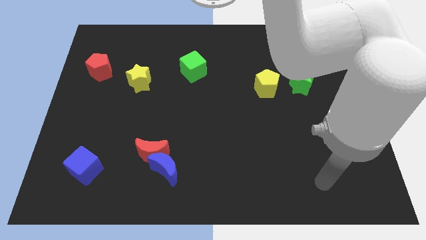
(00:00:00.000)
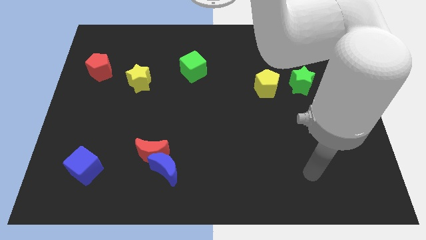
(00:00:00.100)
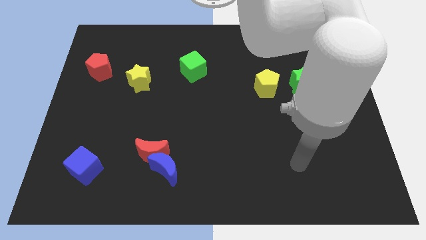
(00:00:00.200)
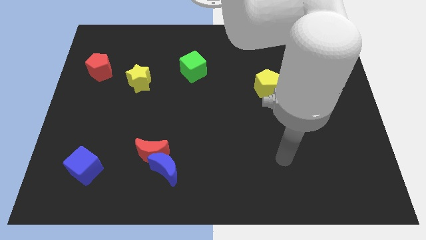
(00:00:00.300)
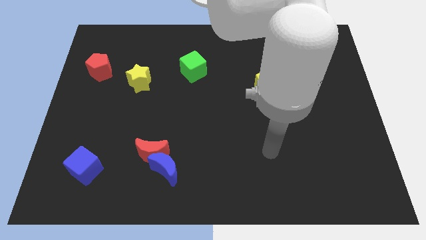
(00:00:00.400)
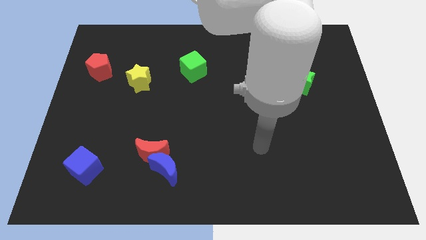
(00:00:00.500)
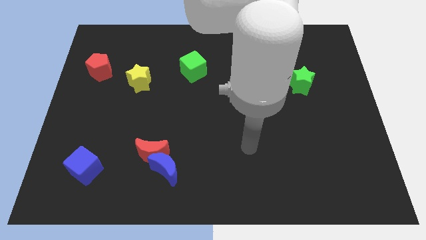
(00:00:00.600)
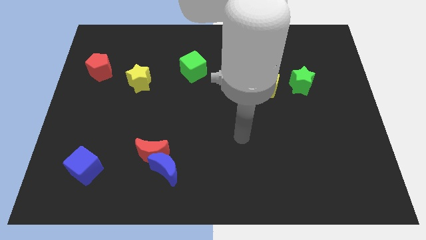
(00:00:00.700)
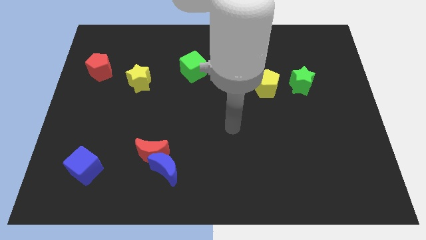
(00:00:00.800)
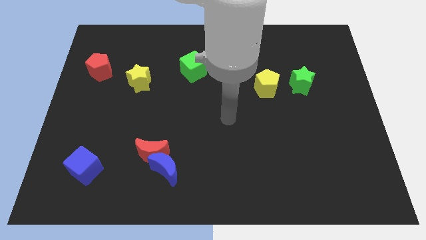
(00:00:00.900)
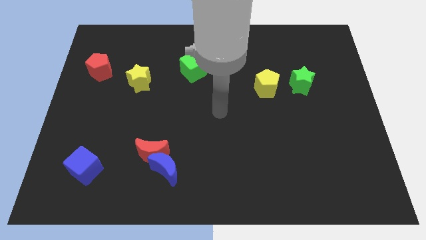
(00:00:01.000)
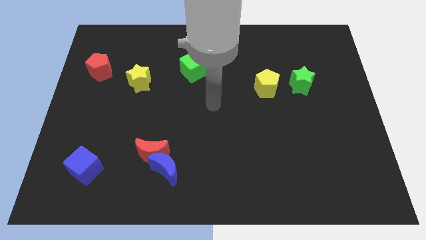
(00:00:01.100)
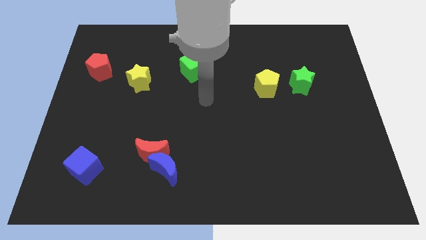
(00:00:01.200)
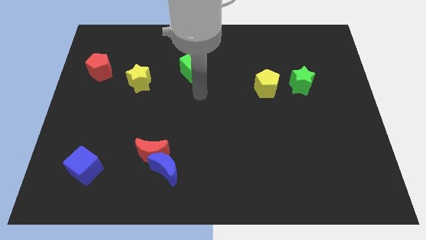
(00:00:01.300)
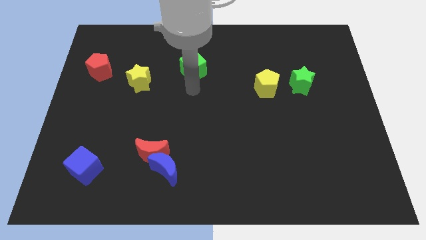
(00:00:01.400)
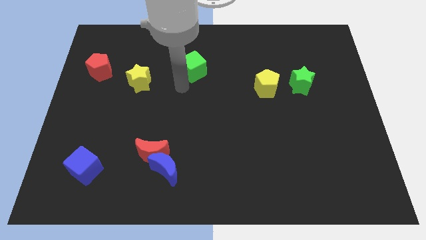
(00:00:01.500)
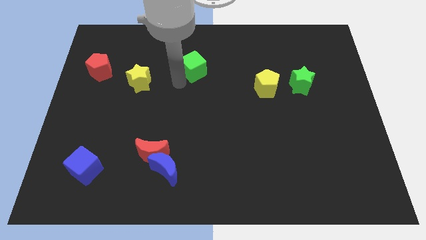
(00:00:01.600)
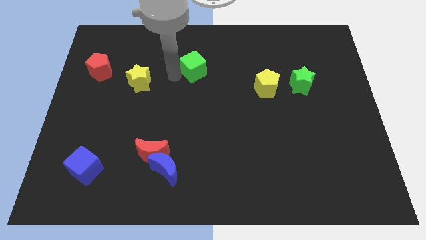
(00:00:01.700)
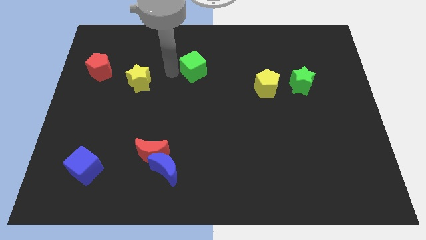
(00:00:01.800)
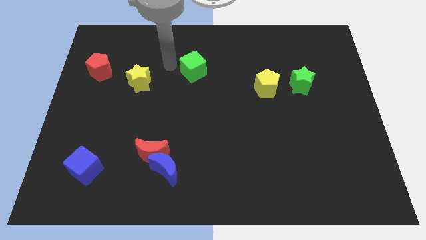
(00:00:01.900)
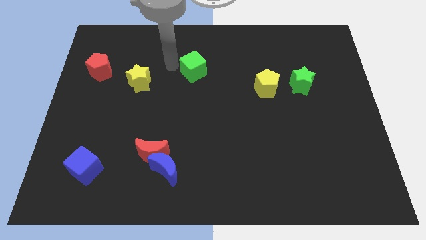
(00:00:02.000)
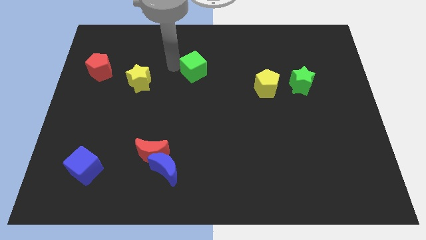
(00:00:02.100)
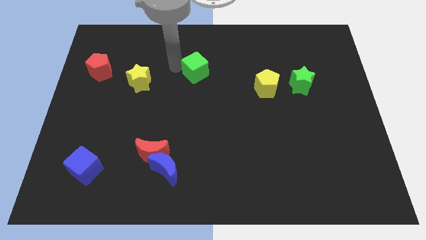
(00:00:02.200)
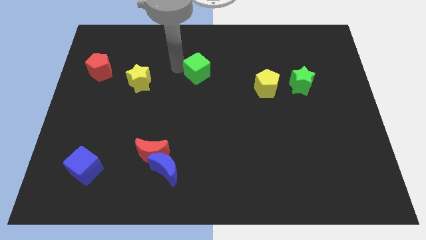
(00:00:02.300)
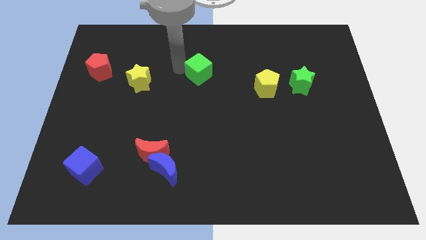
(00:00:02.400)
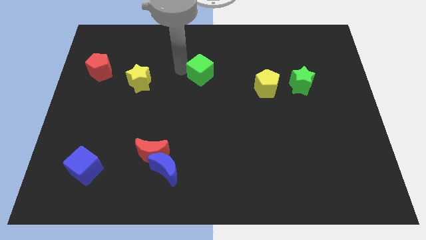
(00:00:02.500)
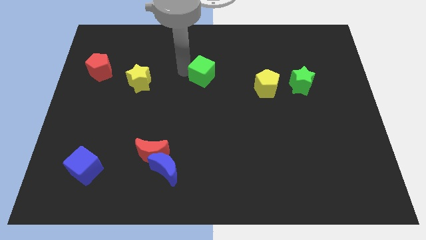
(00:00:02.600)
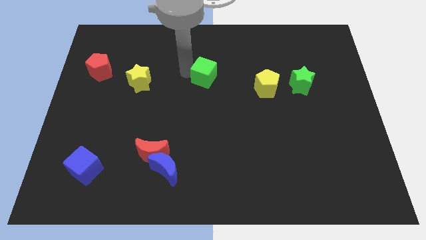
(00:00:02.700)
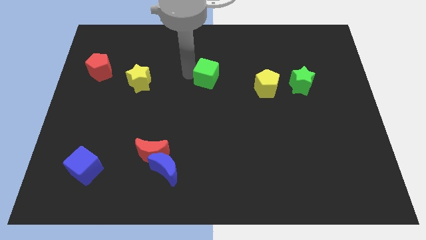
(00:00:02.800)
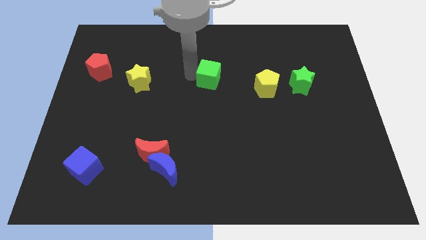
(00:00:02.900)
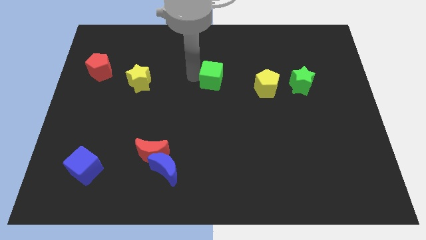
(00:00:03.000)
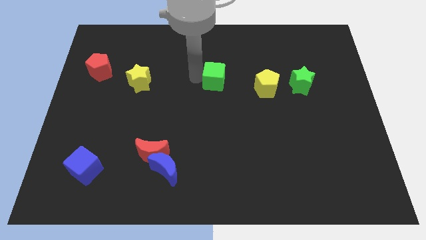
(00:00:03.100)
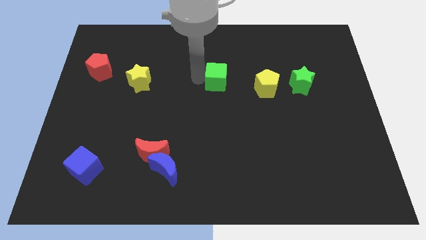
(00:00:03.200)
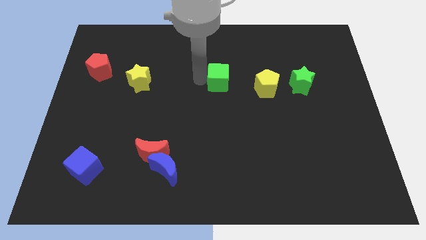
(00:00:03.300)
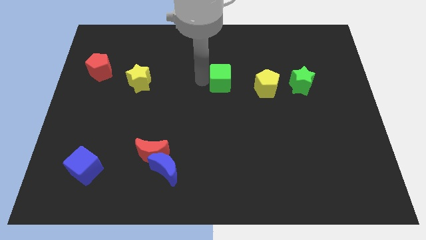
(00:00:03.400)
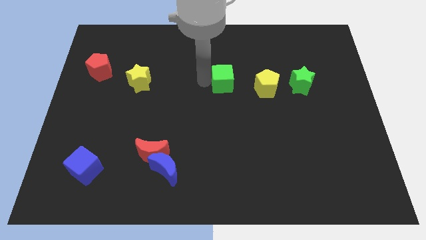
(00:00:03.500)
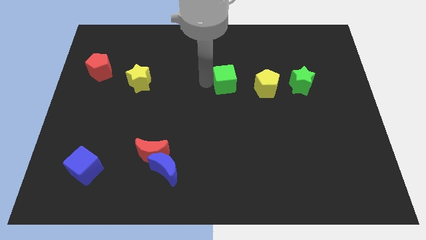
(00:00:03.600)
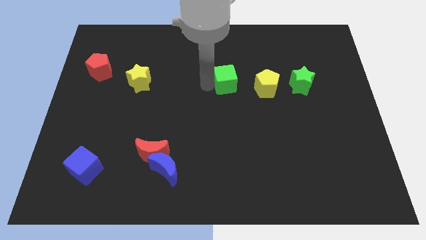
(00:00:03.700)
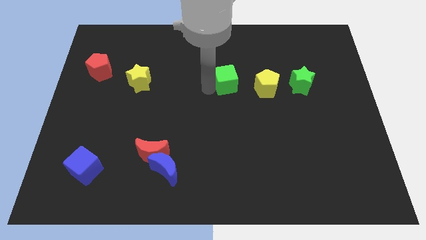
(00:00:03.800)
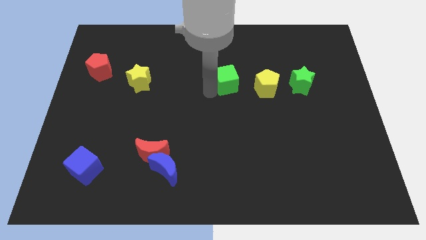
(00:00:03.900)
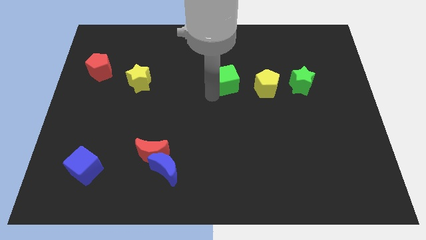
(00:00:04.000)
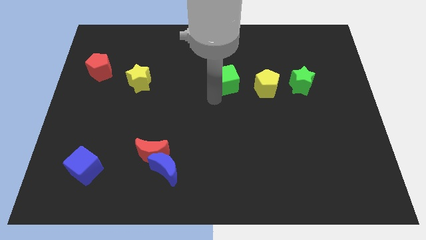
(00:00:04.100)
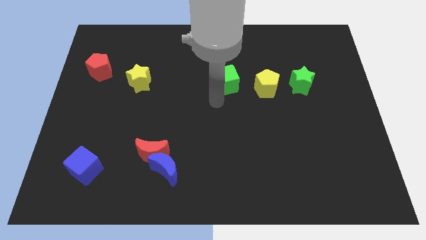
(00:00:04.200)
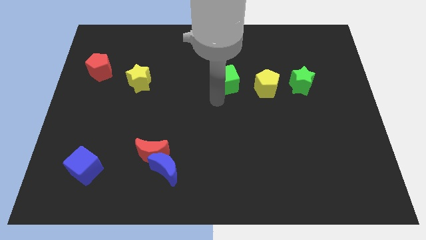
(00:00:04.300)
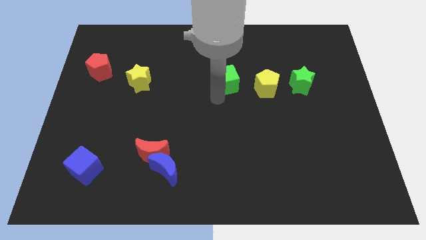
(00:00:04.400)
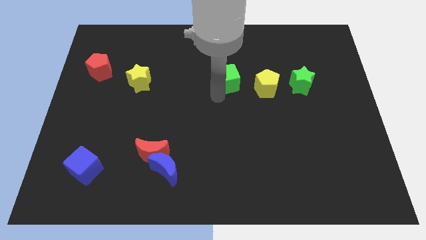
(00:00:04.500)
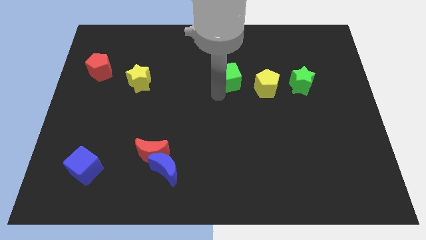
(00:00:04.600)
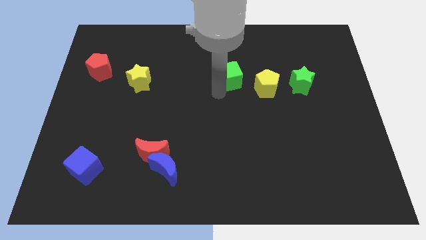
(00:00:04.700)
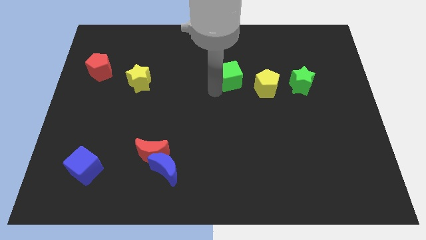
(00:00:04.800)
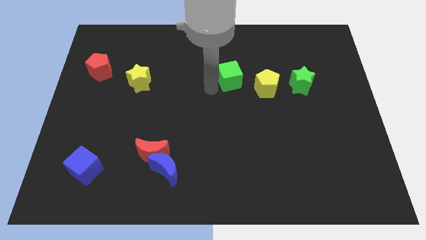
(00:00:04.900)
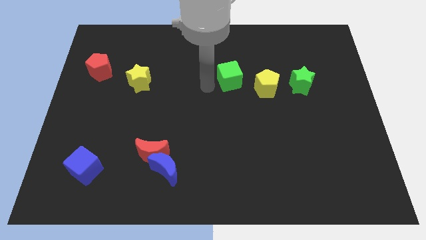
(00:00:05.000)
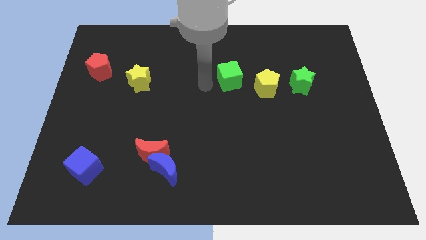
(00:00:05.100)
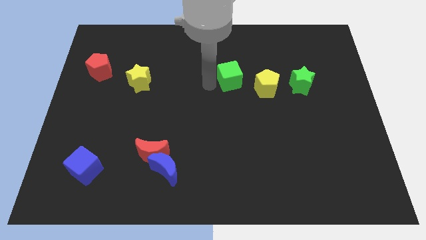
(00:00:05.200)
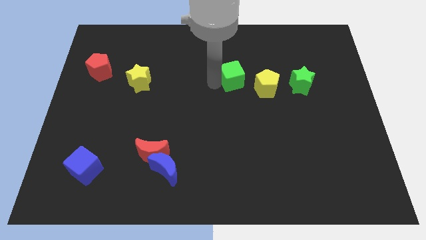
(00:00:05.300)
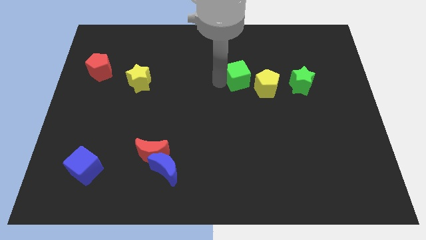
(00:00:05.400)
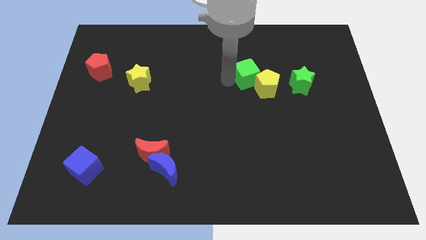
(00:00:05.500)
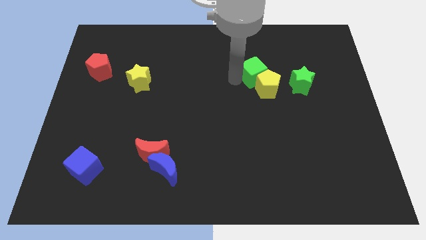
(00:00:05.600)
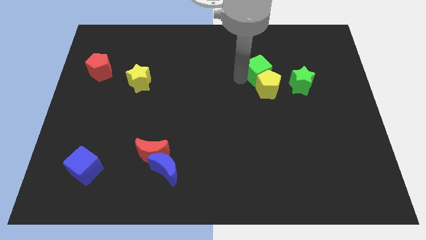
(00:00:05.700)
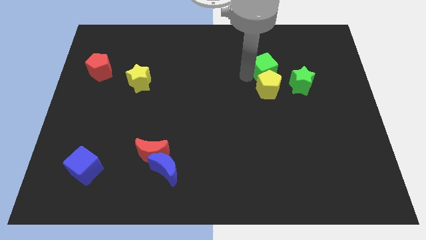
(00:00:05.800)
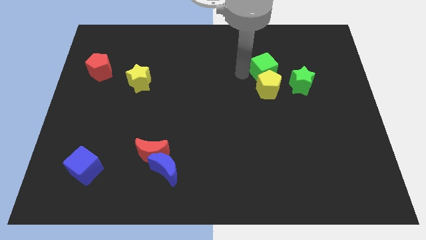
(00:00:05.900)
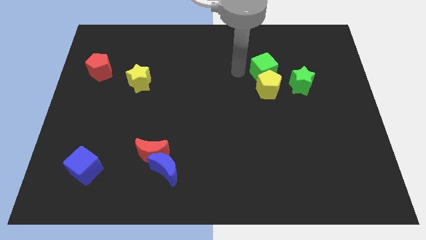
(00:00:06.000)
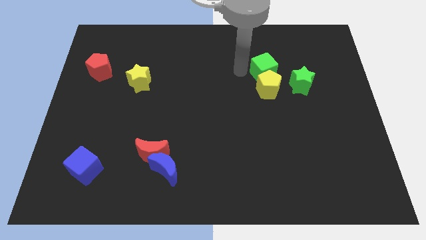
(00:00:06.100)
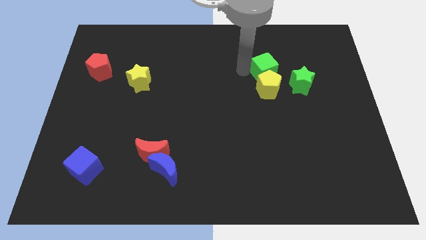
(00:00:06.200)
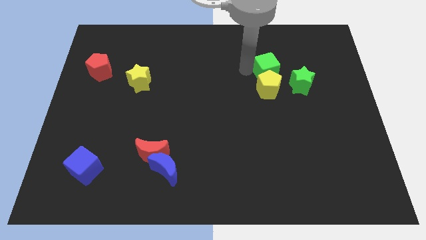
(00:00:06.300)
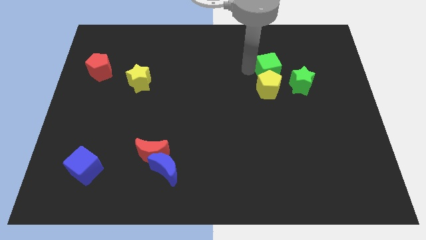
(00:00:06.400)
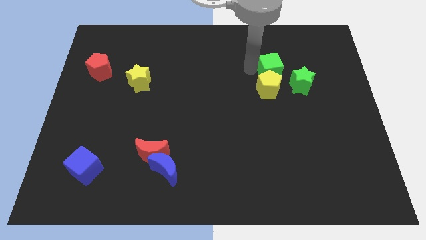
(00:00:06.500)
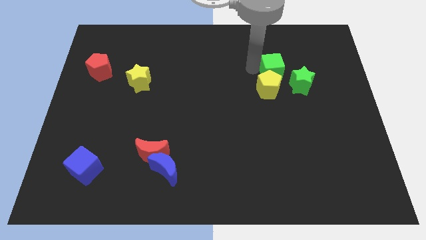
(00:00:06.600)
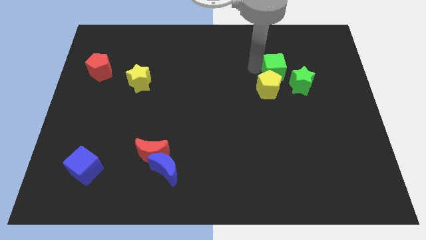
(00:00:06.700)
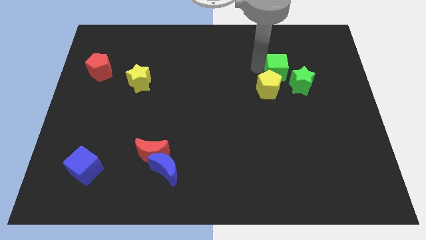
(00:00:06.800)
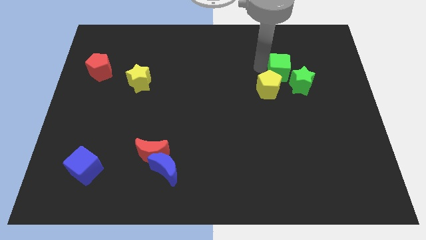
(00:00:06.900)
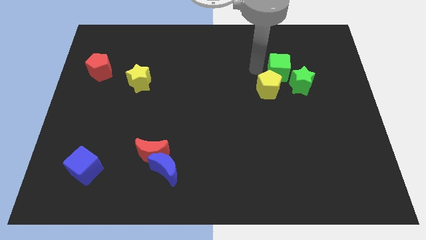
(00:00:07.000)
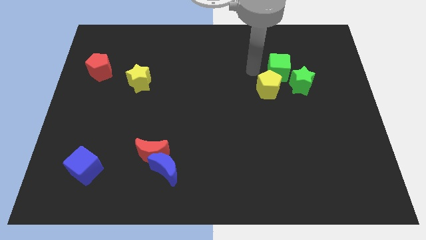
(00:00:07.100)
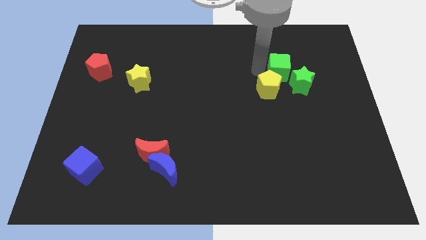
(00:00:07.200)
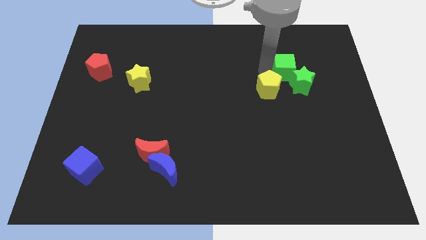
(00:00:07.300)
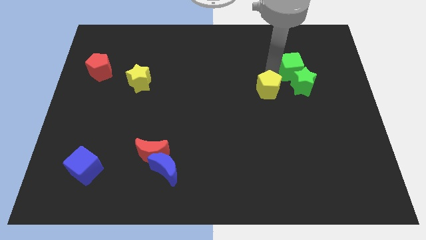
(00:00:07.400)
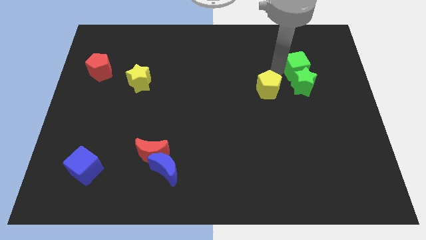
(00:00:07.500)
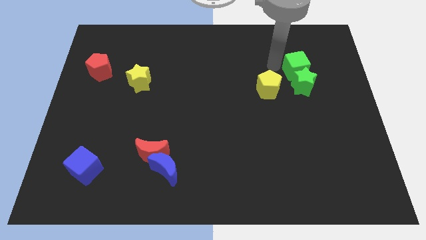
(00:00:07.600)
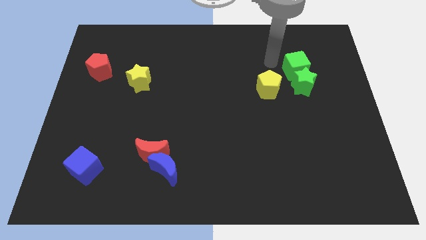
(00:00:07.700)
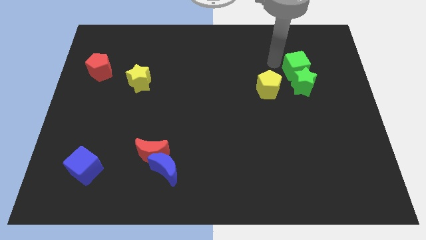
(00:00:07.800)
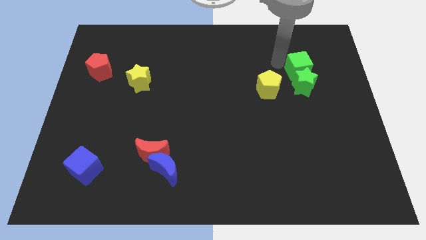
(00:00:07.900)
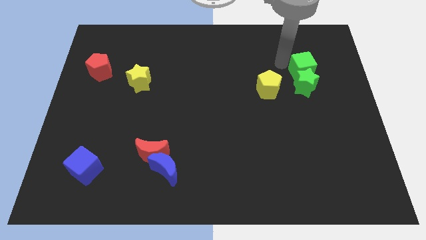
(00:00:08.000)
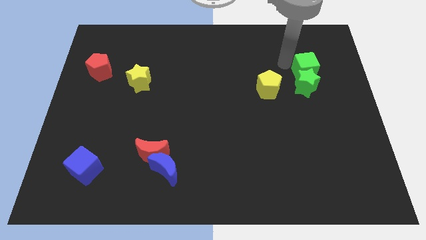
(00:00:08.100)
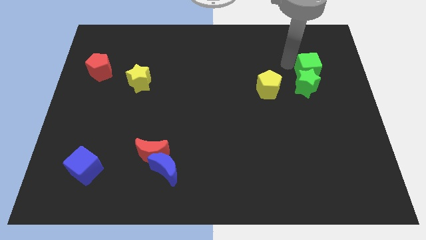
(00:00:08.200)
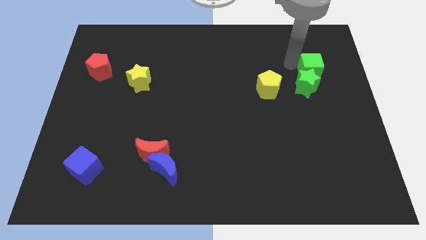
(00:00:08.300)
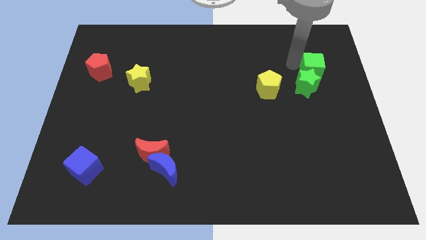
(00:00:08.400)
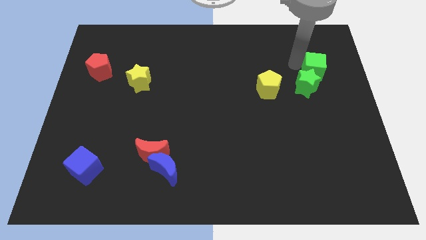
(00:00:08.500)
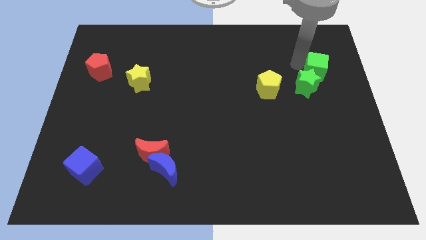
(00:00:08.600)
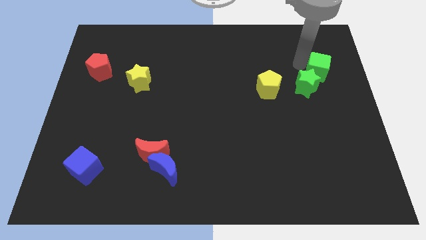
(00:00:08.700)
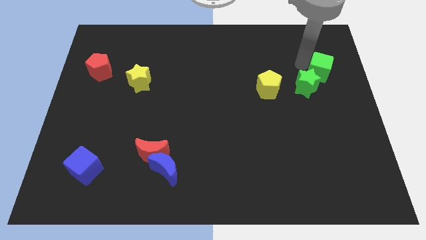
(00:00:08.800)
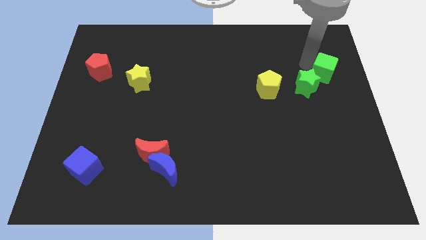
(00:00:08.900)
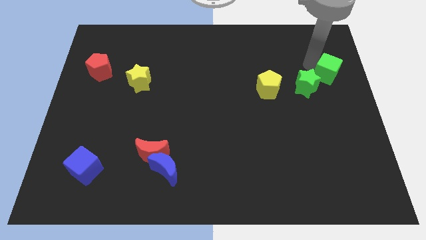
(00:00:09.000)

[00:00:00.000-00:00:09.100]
push the green cube to the right side
